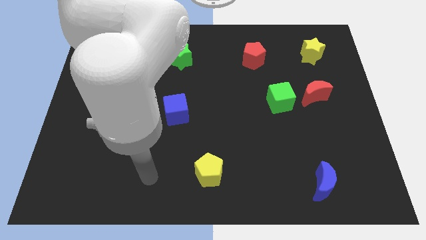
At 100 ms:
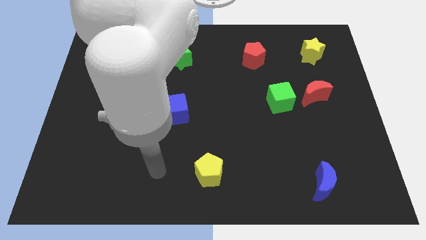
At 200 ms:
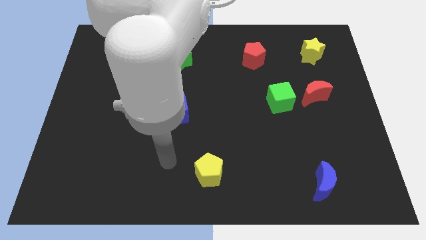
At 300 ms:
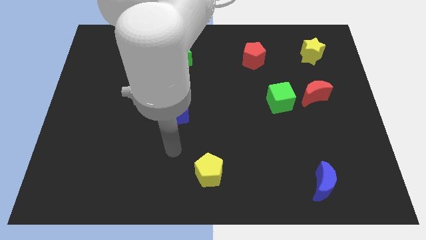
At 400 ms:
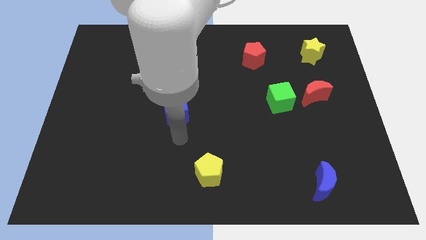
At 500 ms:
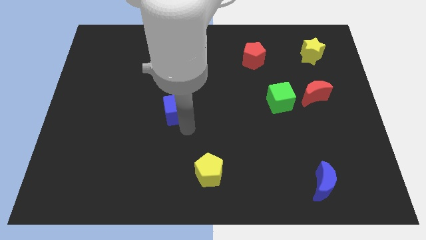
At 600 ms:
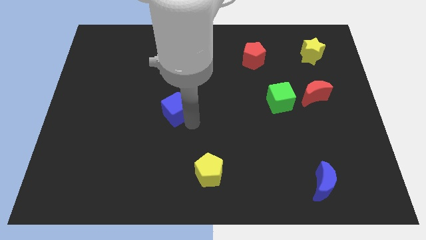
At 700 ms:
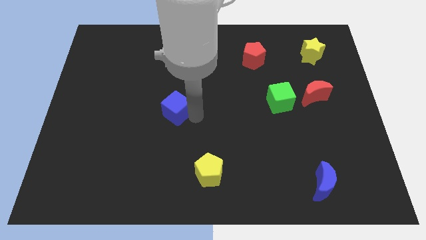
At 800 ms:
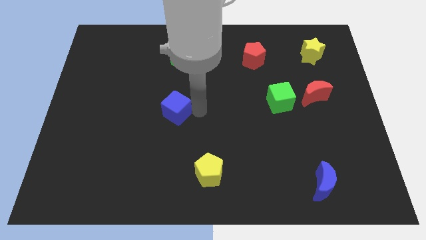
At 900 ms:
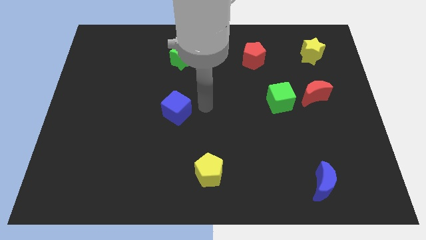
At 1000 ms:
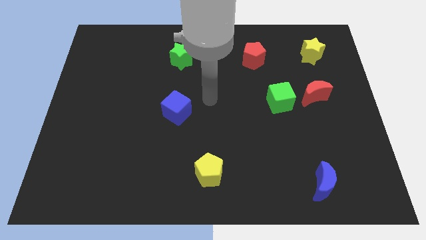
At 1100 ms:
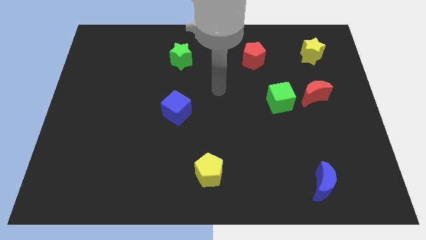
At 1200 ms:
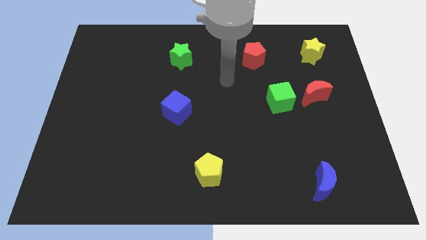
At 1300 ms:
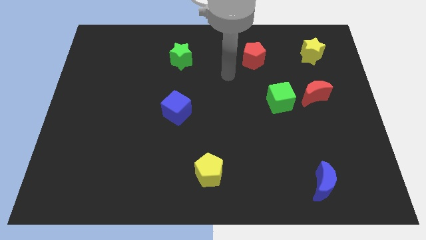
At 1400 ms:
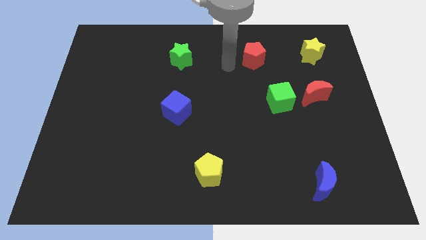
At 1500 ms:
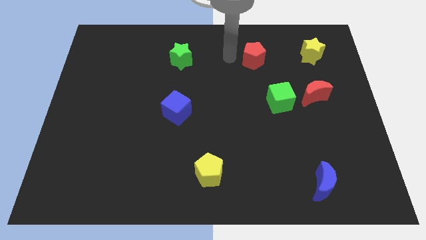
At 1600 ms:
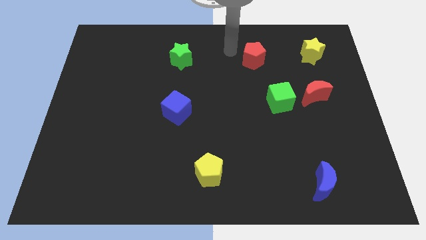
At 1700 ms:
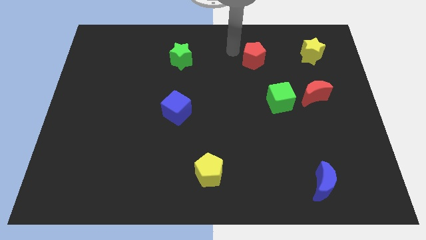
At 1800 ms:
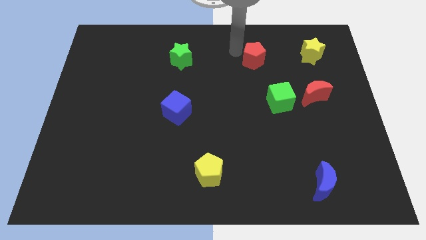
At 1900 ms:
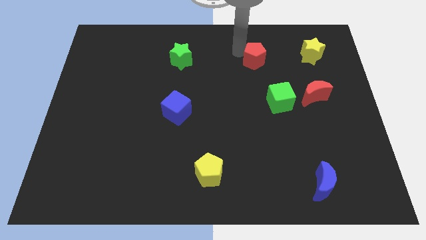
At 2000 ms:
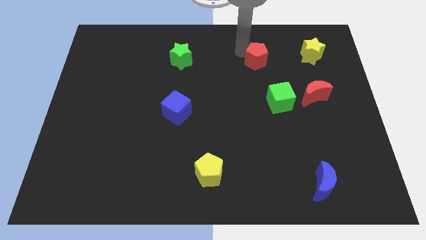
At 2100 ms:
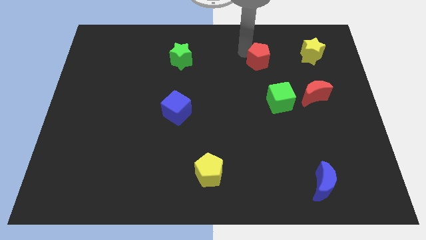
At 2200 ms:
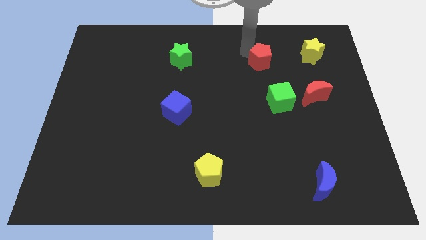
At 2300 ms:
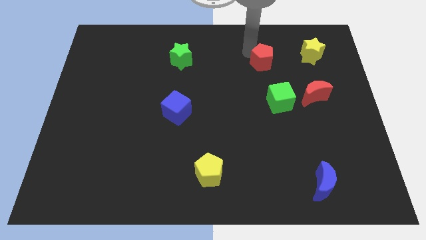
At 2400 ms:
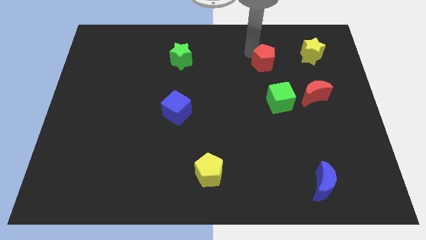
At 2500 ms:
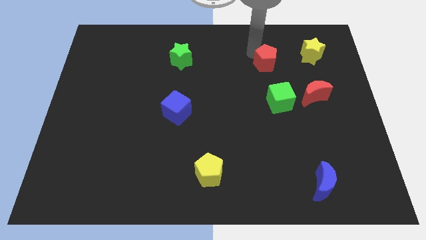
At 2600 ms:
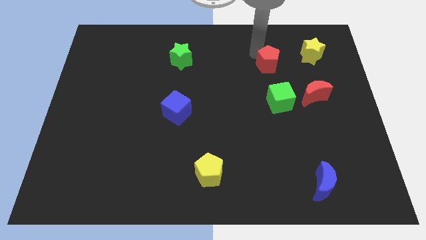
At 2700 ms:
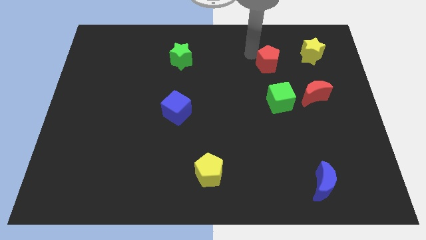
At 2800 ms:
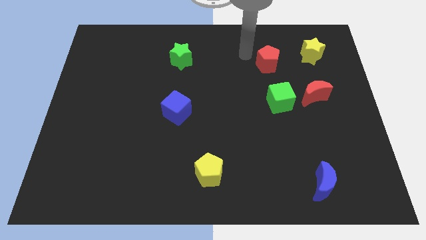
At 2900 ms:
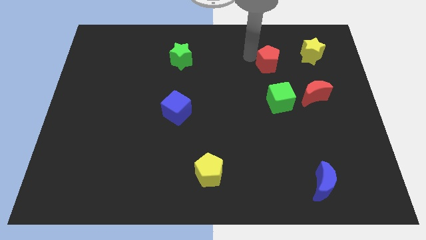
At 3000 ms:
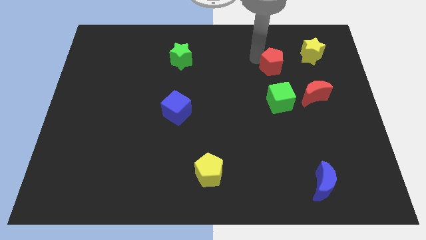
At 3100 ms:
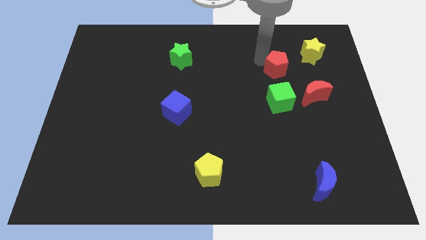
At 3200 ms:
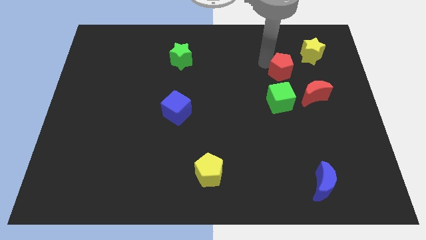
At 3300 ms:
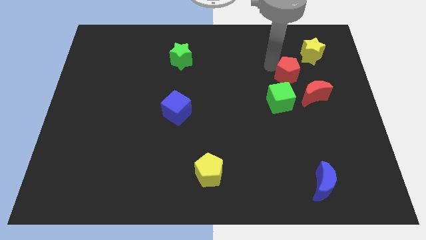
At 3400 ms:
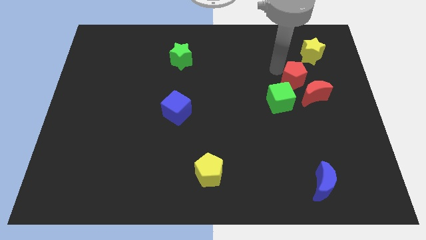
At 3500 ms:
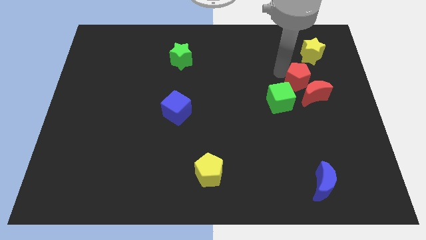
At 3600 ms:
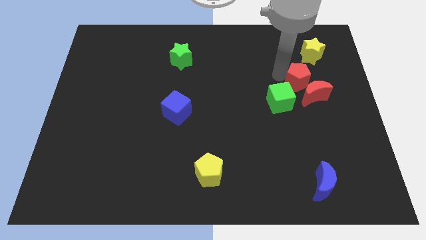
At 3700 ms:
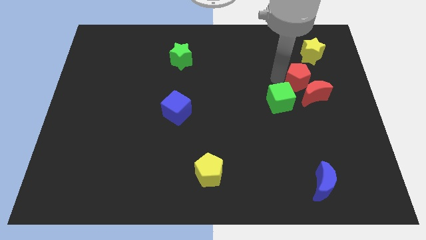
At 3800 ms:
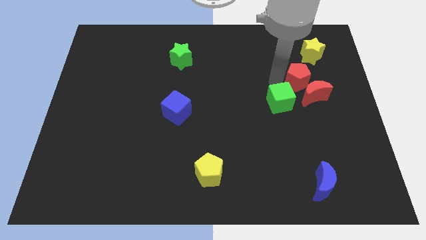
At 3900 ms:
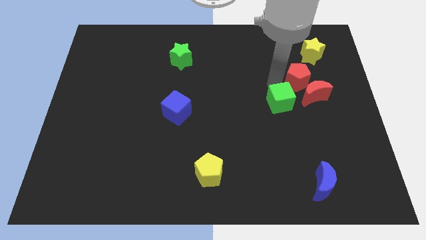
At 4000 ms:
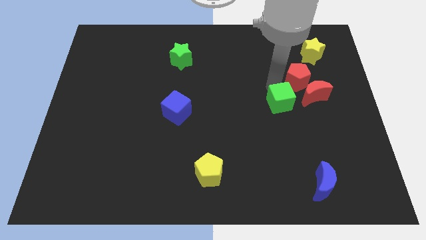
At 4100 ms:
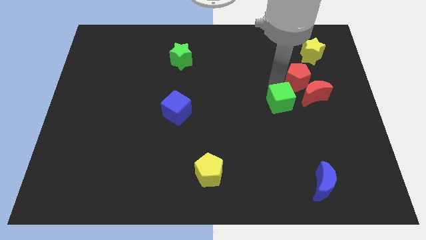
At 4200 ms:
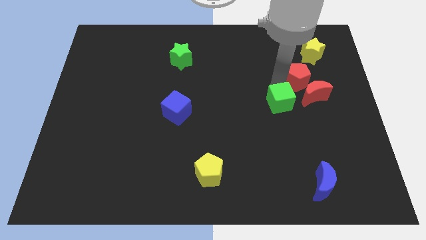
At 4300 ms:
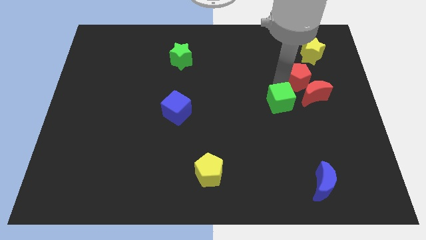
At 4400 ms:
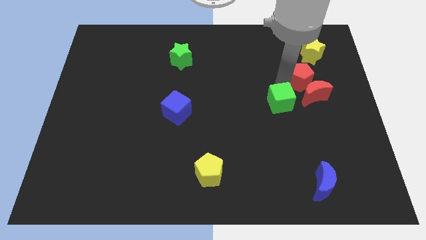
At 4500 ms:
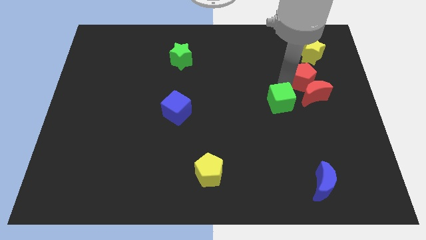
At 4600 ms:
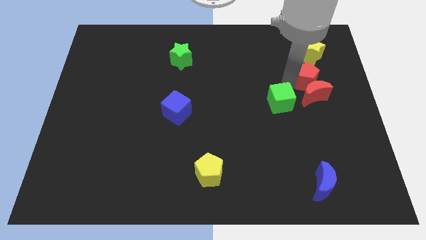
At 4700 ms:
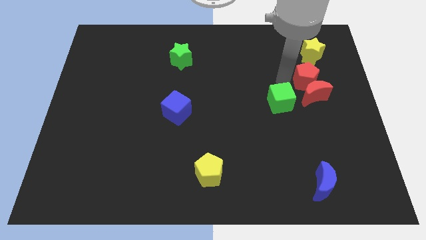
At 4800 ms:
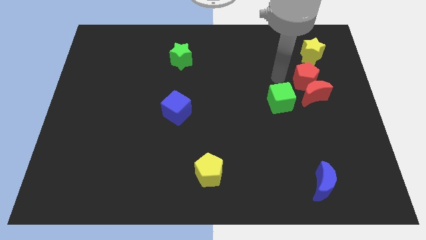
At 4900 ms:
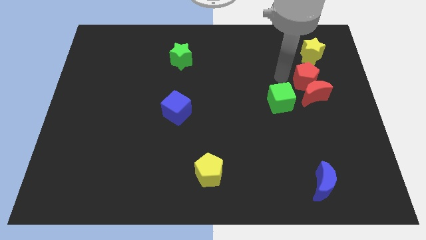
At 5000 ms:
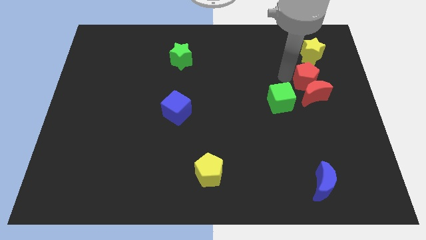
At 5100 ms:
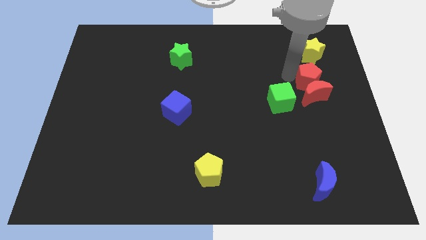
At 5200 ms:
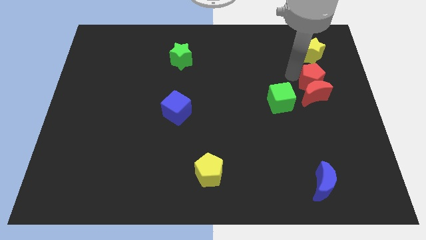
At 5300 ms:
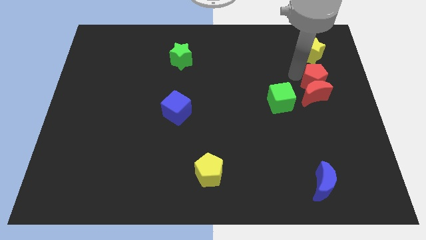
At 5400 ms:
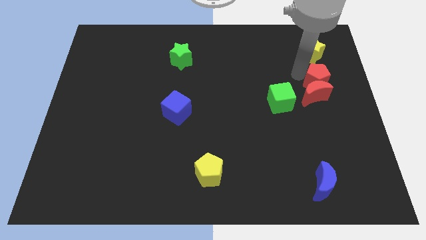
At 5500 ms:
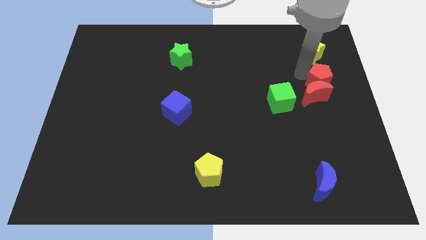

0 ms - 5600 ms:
put the red pentagon to the right side

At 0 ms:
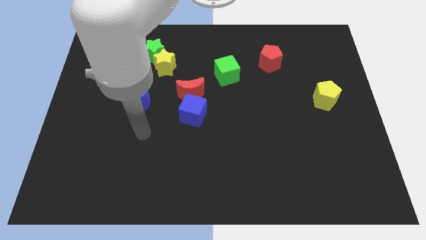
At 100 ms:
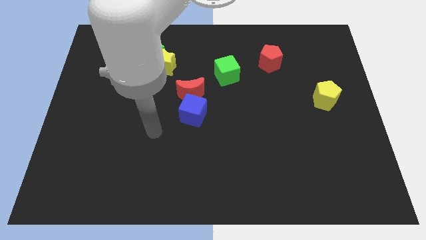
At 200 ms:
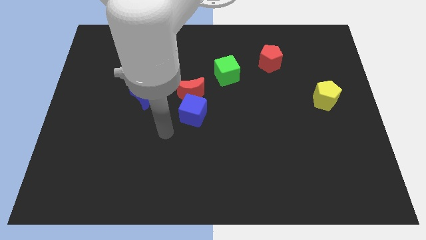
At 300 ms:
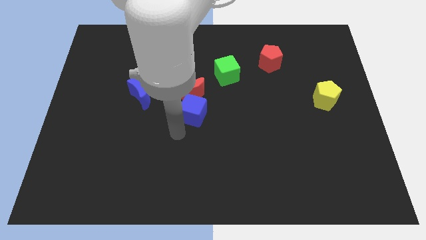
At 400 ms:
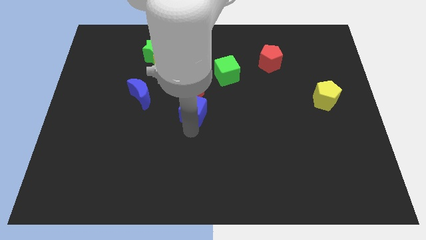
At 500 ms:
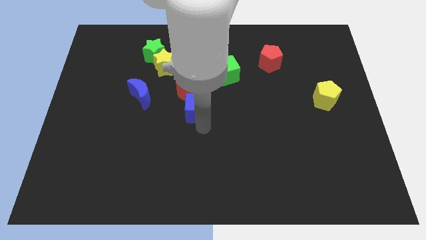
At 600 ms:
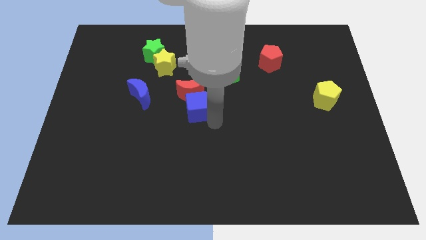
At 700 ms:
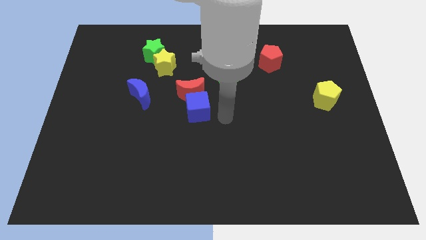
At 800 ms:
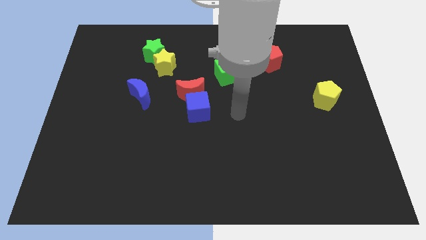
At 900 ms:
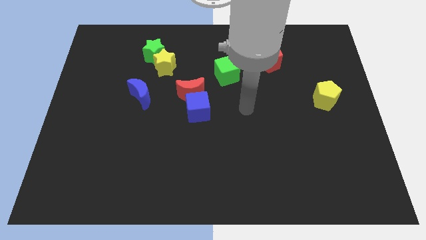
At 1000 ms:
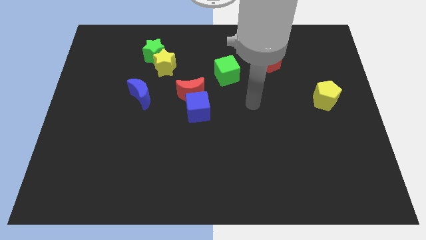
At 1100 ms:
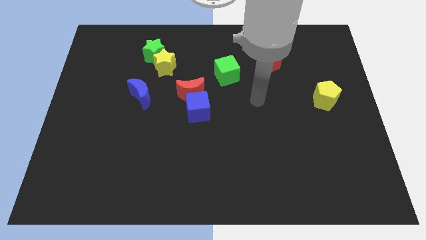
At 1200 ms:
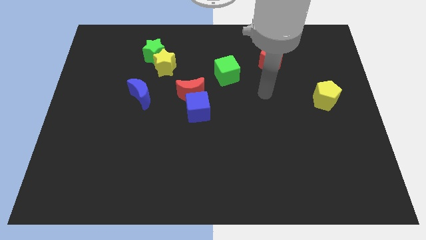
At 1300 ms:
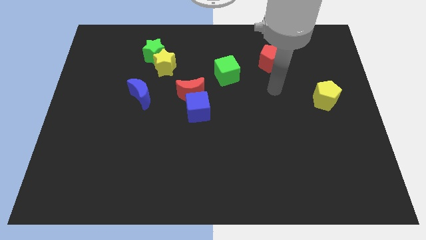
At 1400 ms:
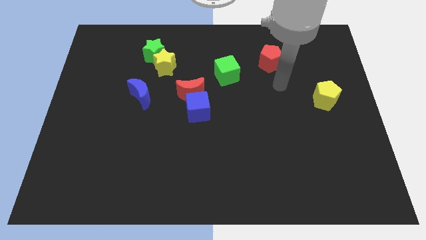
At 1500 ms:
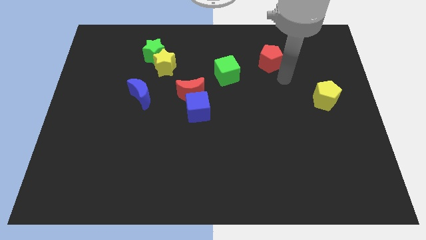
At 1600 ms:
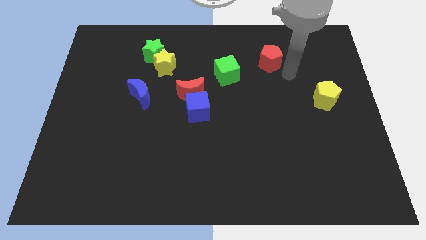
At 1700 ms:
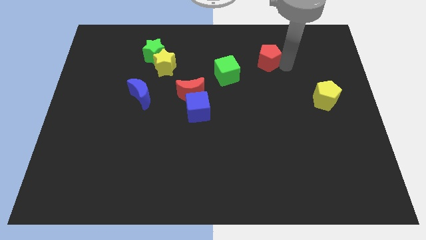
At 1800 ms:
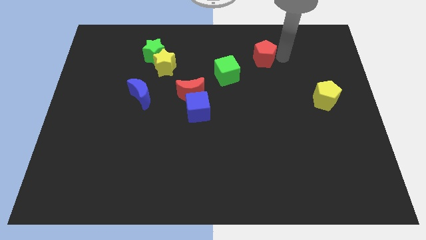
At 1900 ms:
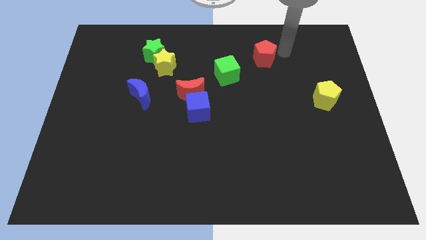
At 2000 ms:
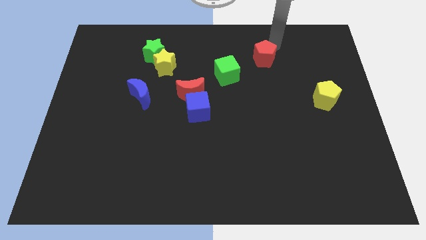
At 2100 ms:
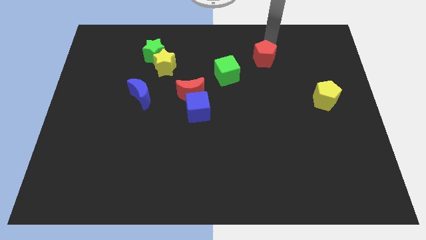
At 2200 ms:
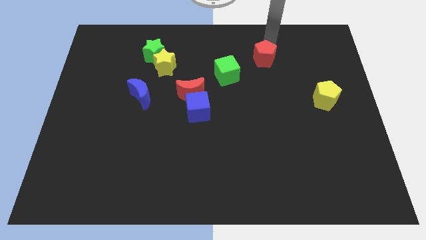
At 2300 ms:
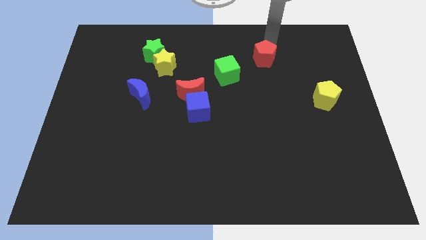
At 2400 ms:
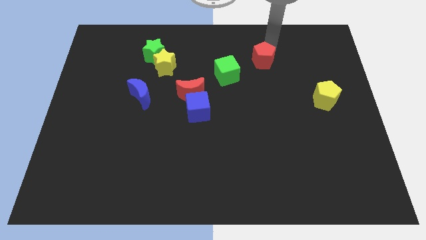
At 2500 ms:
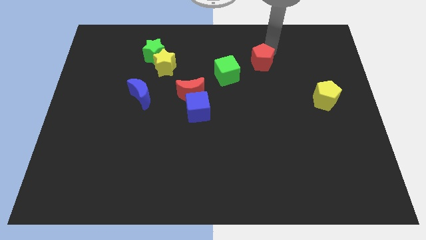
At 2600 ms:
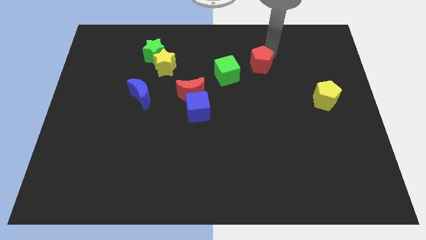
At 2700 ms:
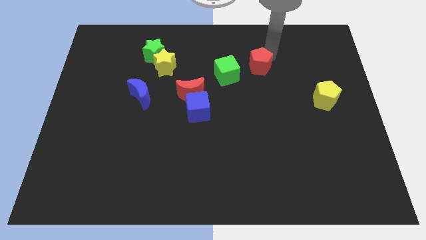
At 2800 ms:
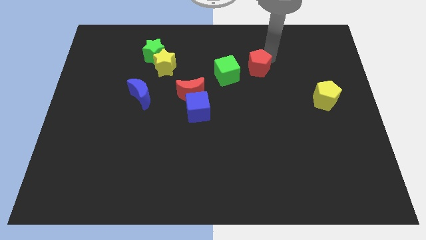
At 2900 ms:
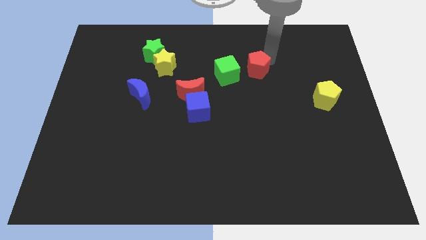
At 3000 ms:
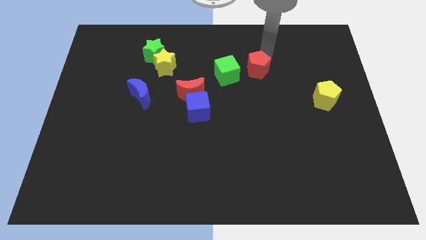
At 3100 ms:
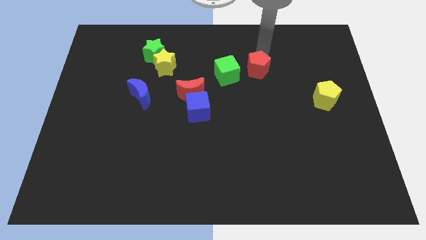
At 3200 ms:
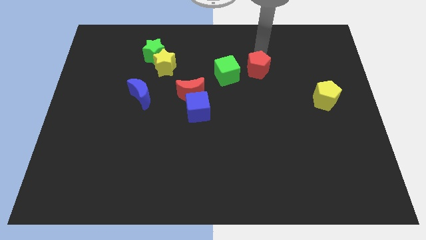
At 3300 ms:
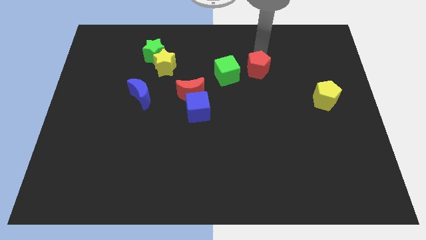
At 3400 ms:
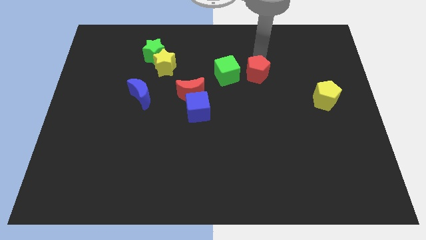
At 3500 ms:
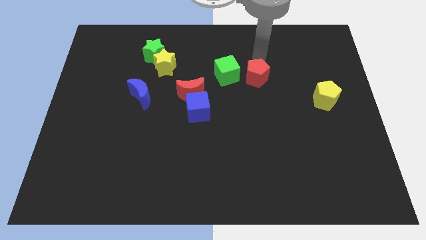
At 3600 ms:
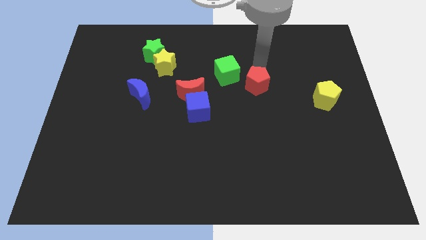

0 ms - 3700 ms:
put the red pentagon to the middle
